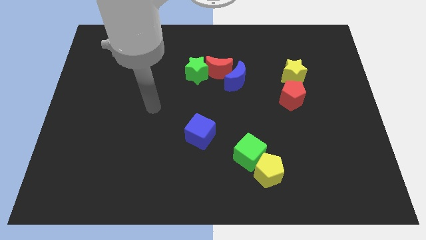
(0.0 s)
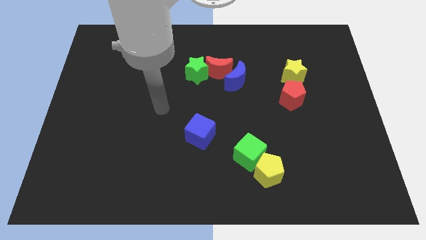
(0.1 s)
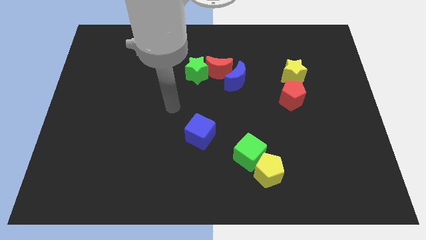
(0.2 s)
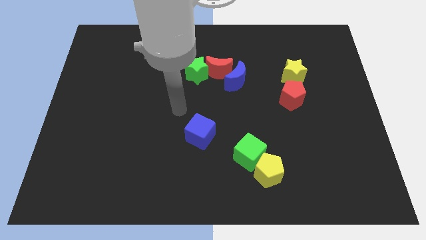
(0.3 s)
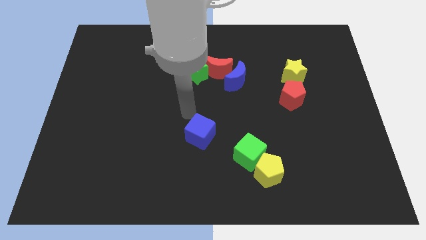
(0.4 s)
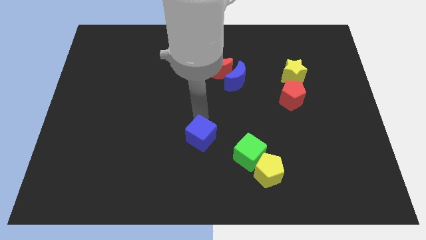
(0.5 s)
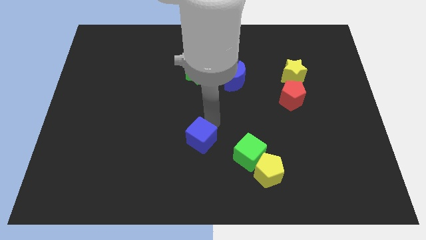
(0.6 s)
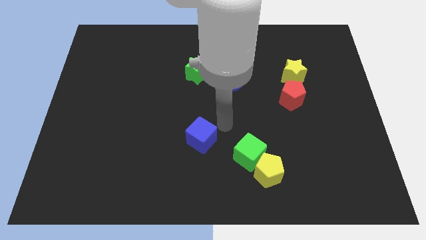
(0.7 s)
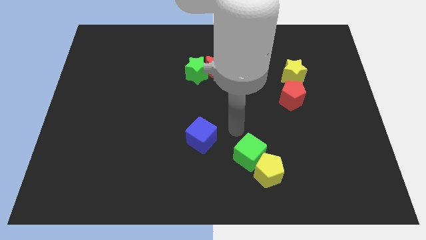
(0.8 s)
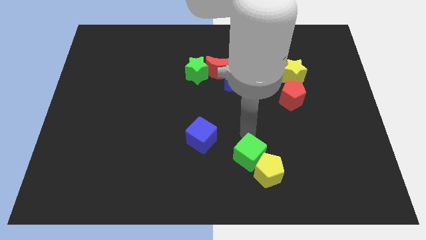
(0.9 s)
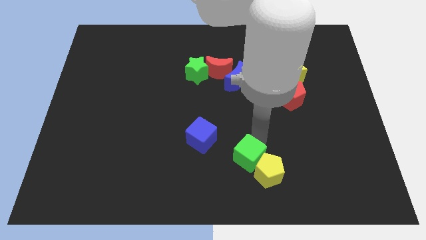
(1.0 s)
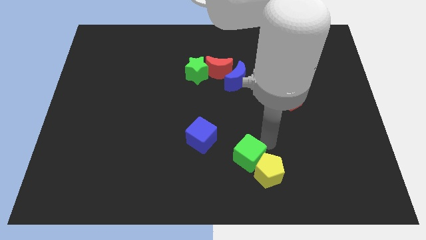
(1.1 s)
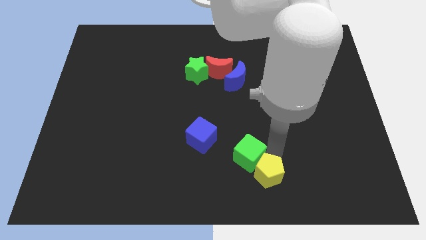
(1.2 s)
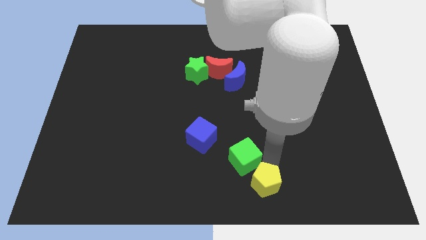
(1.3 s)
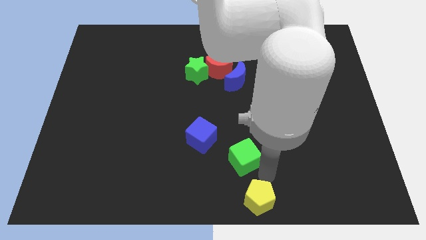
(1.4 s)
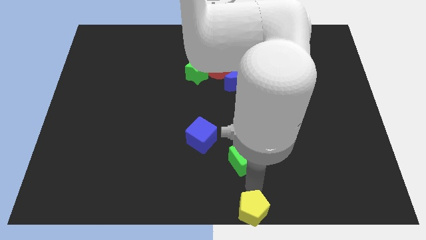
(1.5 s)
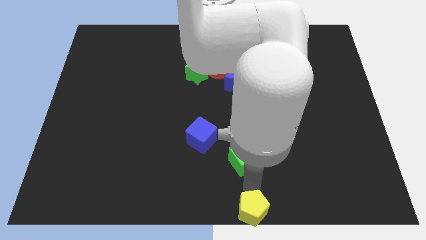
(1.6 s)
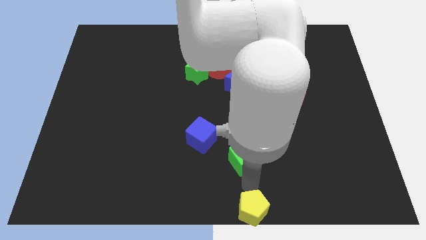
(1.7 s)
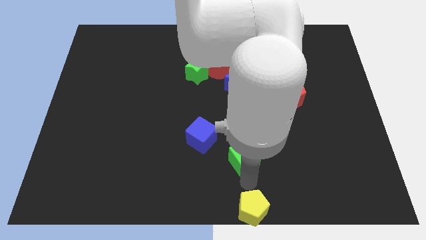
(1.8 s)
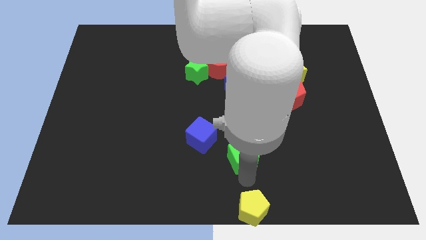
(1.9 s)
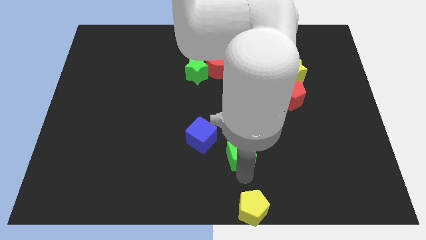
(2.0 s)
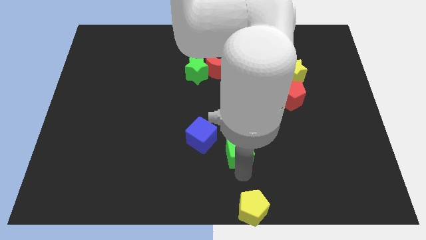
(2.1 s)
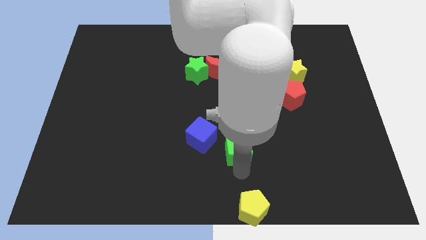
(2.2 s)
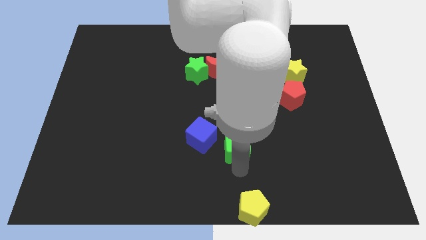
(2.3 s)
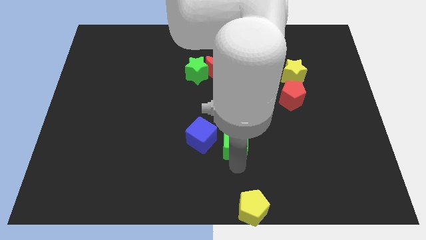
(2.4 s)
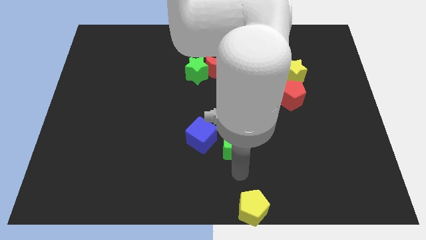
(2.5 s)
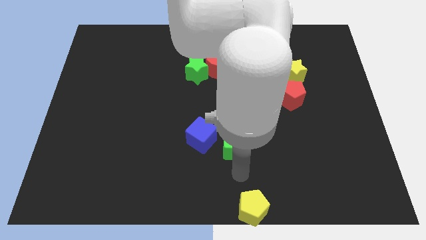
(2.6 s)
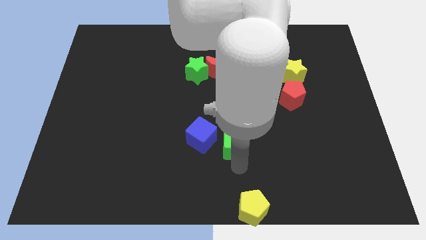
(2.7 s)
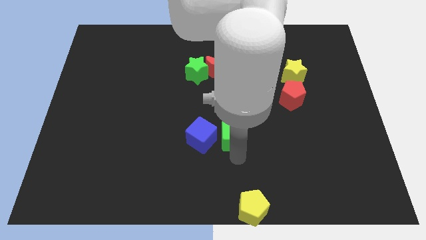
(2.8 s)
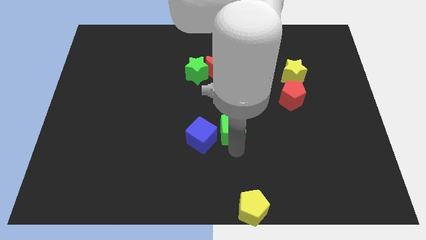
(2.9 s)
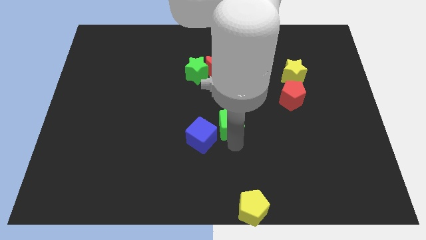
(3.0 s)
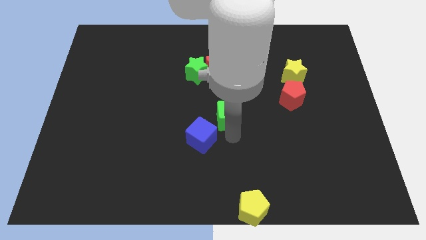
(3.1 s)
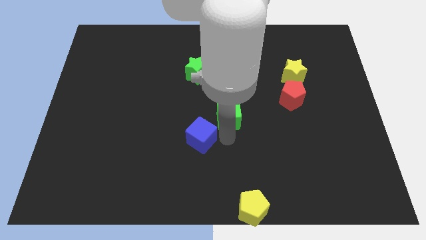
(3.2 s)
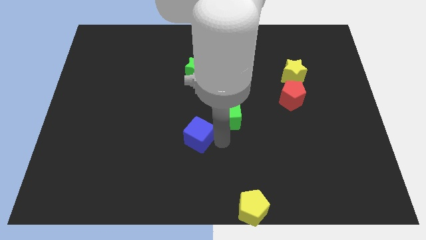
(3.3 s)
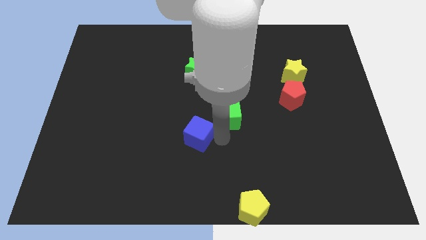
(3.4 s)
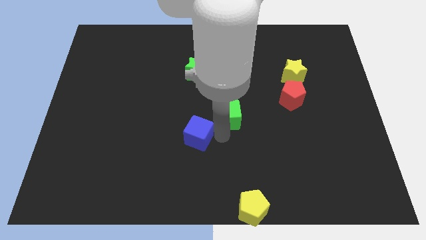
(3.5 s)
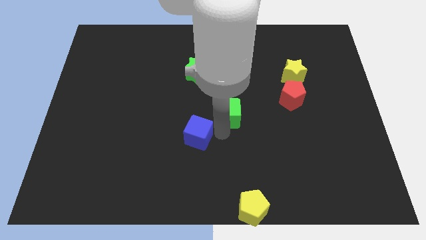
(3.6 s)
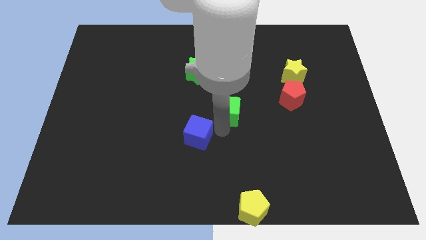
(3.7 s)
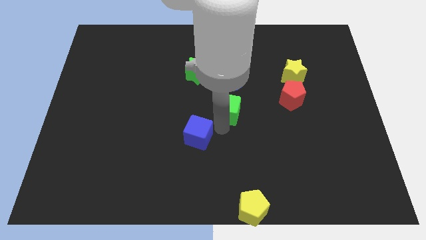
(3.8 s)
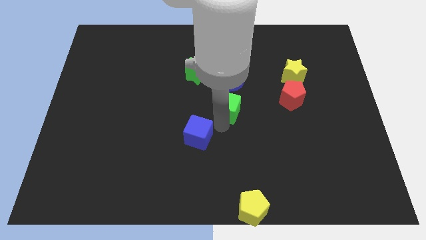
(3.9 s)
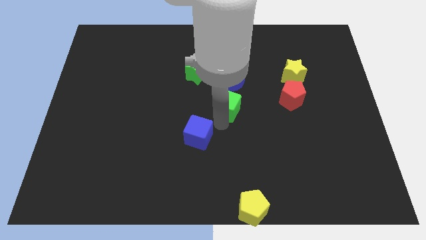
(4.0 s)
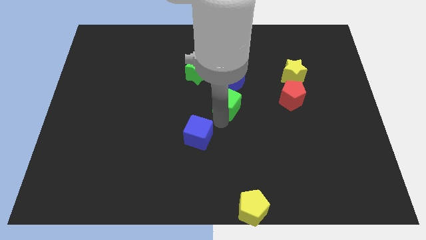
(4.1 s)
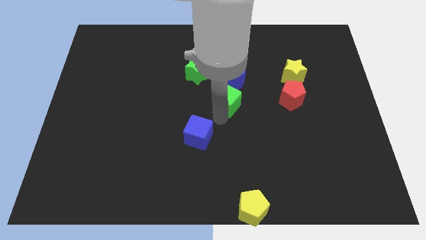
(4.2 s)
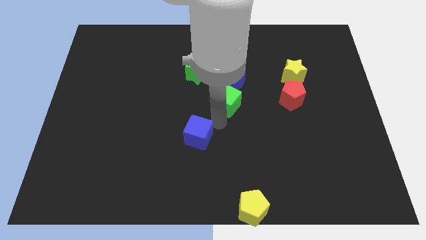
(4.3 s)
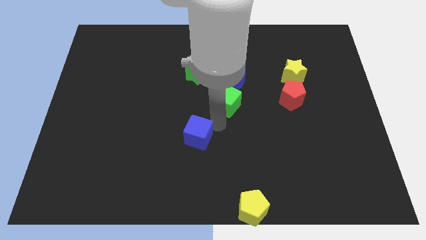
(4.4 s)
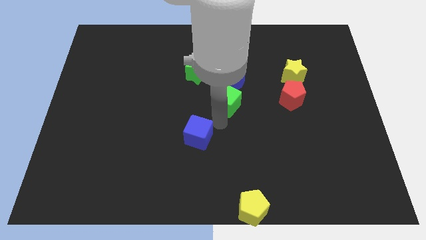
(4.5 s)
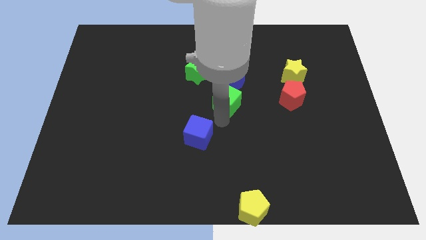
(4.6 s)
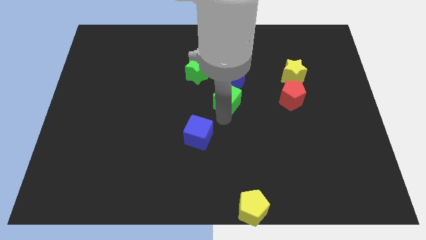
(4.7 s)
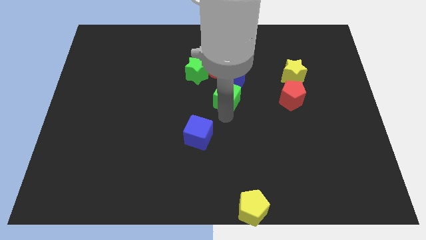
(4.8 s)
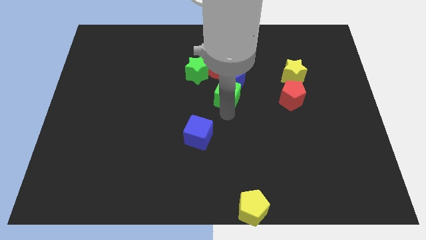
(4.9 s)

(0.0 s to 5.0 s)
slide the green cube towards the blue moon

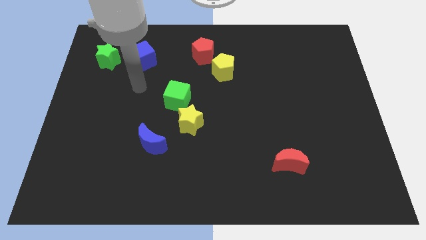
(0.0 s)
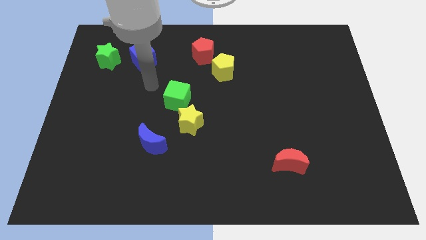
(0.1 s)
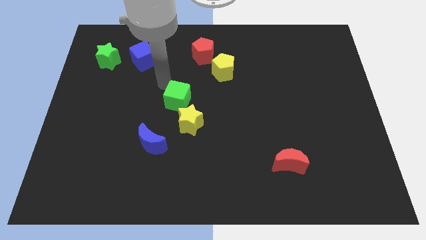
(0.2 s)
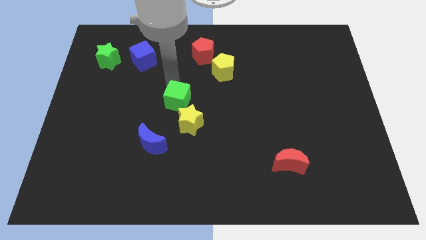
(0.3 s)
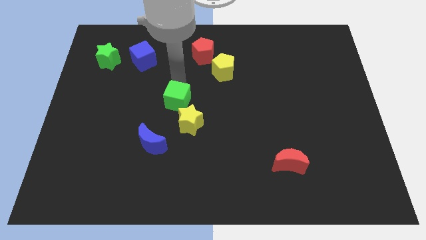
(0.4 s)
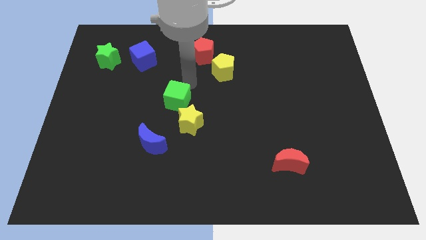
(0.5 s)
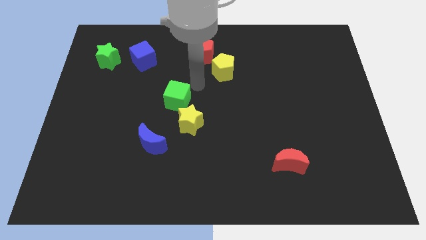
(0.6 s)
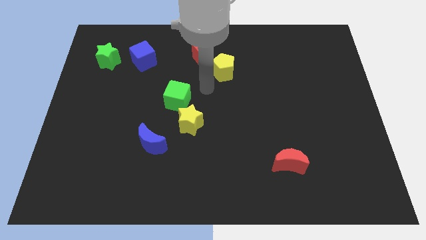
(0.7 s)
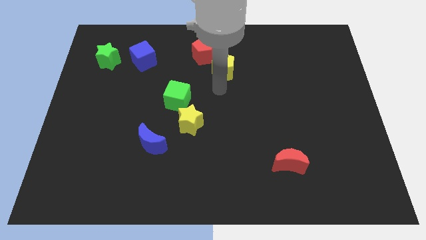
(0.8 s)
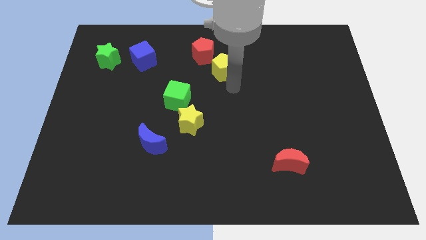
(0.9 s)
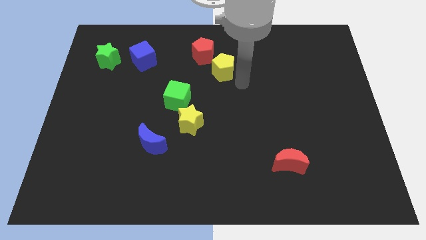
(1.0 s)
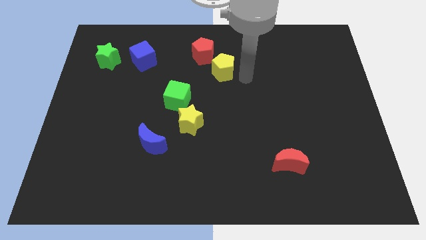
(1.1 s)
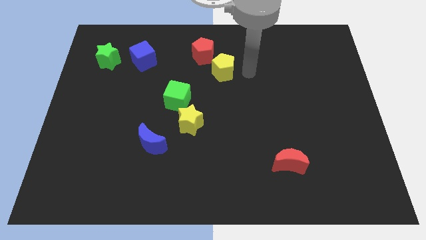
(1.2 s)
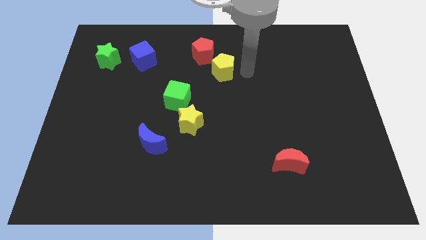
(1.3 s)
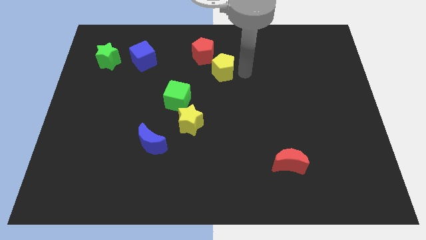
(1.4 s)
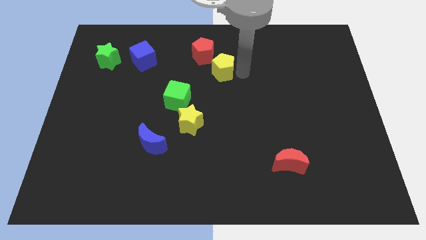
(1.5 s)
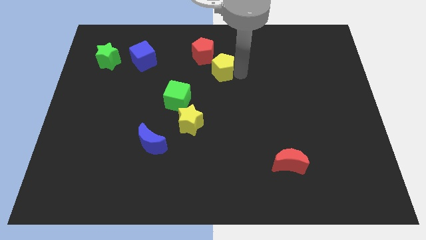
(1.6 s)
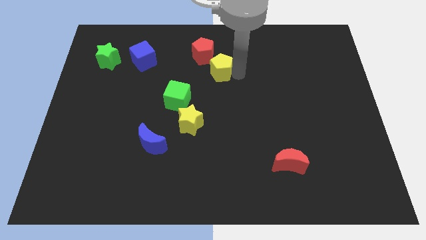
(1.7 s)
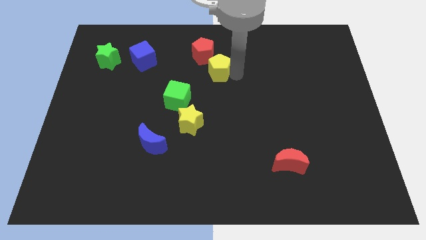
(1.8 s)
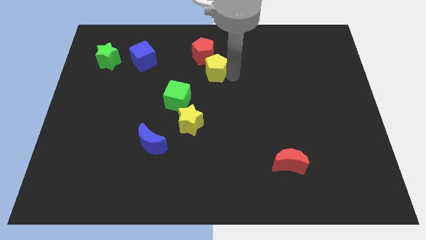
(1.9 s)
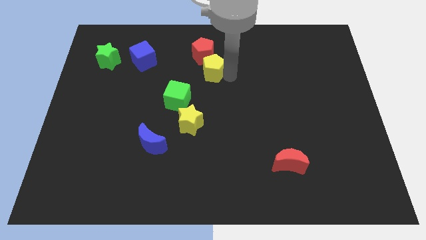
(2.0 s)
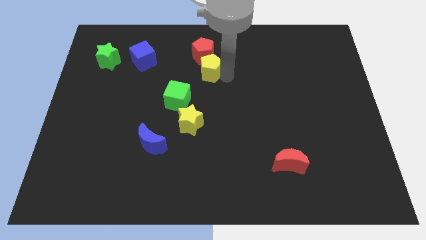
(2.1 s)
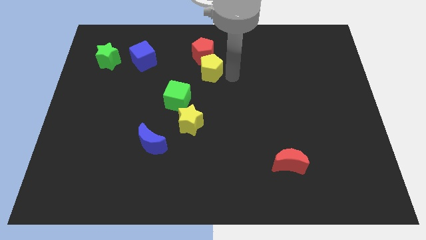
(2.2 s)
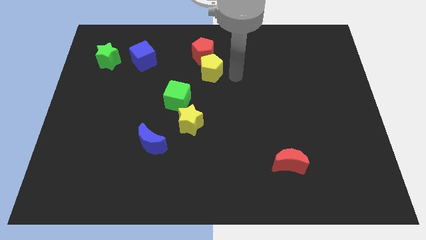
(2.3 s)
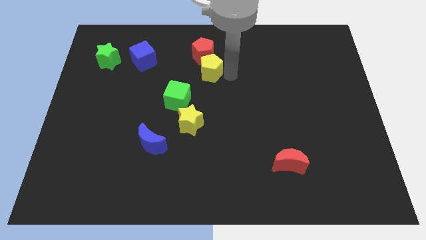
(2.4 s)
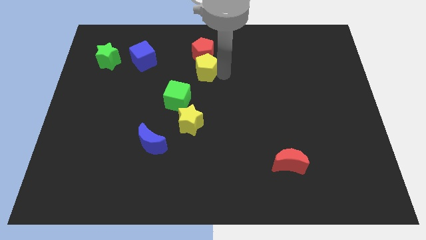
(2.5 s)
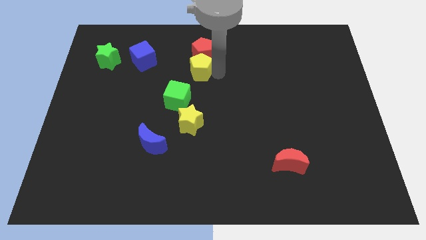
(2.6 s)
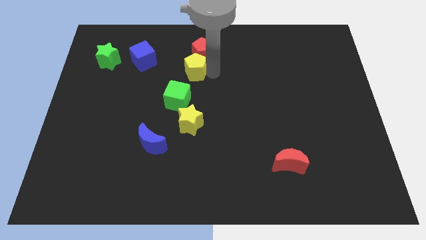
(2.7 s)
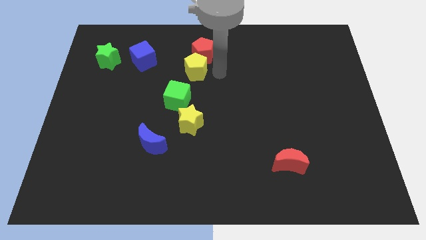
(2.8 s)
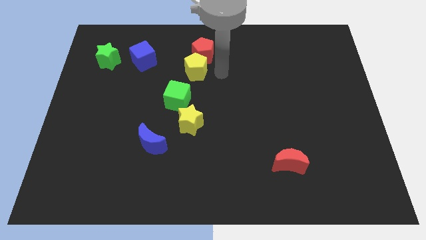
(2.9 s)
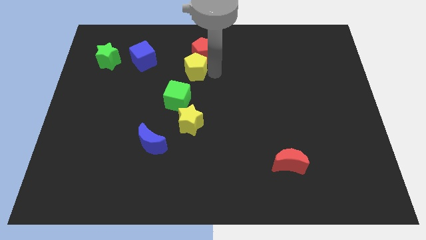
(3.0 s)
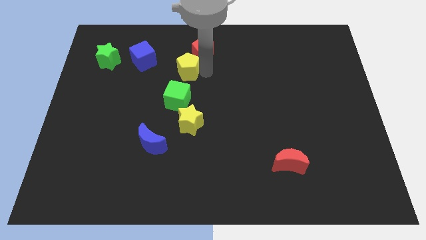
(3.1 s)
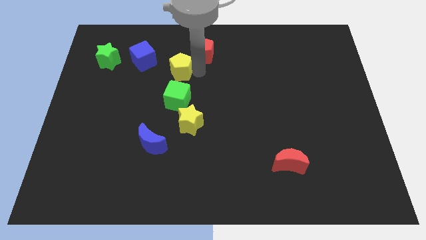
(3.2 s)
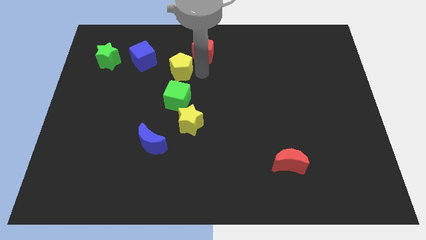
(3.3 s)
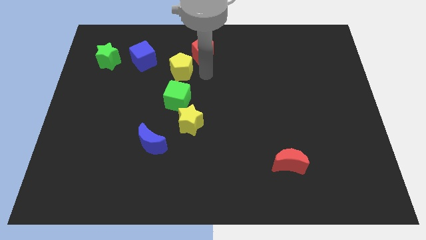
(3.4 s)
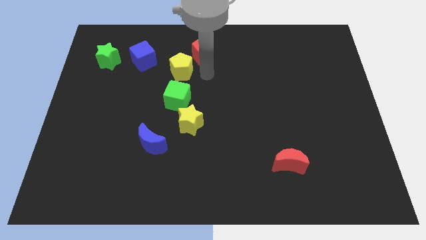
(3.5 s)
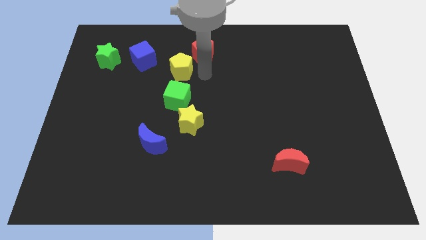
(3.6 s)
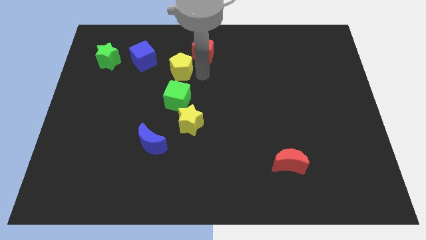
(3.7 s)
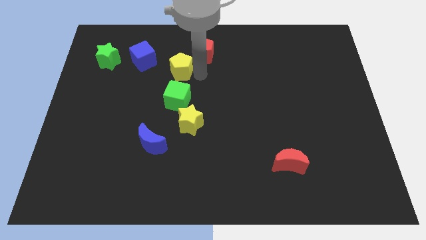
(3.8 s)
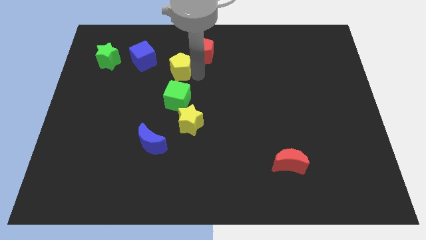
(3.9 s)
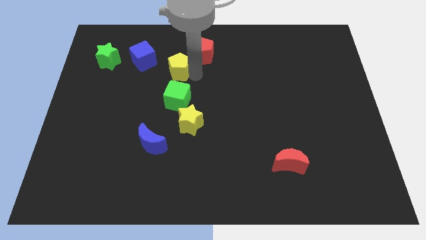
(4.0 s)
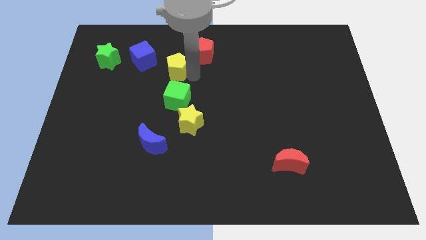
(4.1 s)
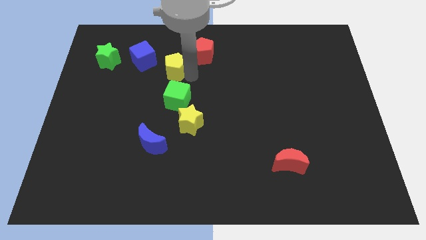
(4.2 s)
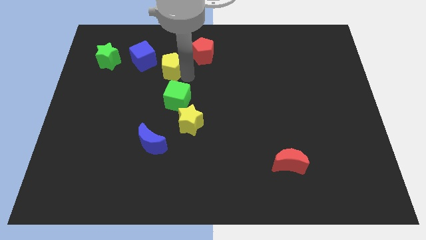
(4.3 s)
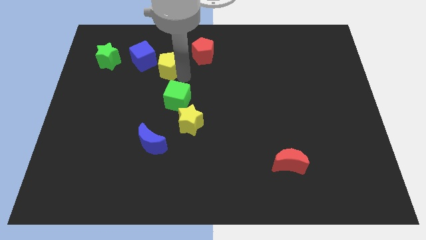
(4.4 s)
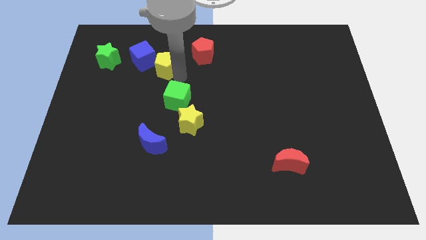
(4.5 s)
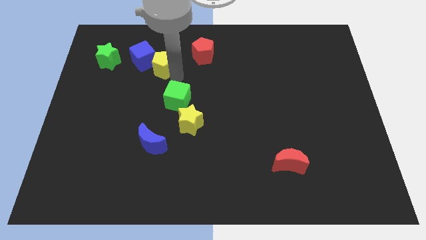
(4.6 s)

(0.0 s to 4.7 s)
put the yellow pentagon to the blue cube
